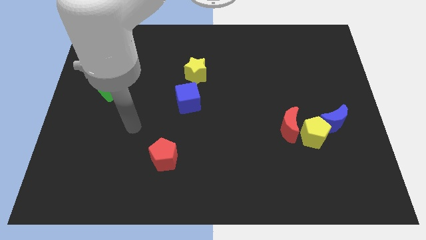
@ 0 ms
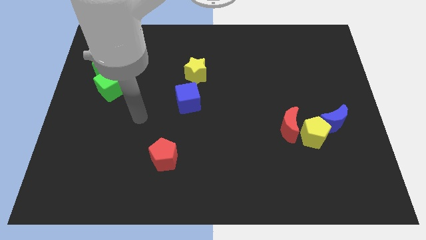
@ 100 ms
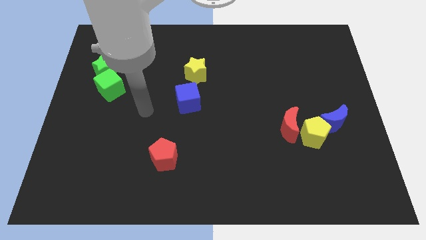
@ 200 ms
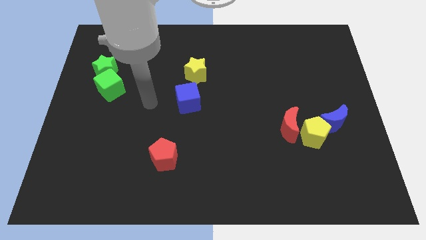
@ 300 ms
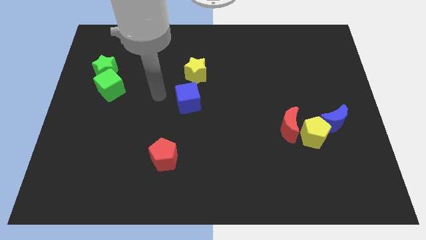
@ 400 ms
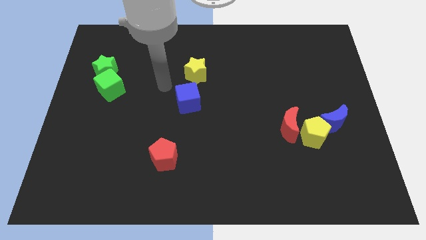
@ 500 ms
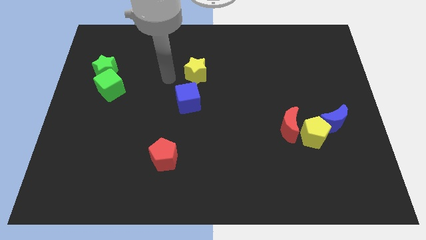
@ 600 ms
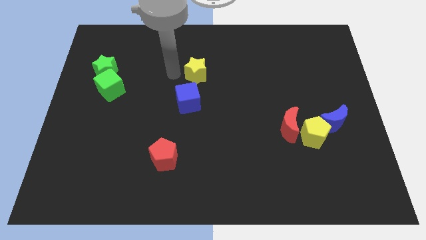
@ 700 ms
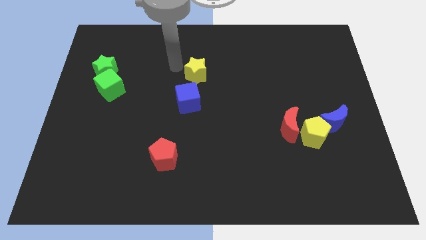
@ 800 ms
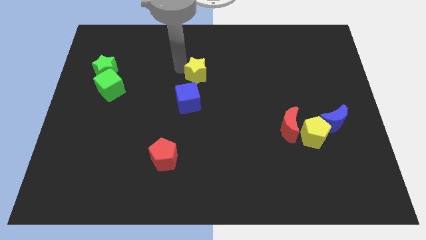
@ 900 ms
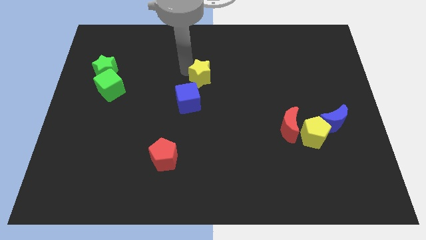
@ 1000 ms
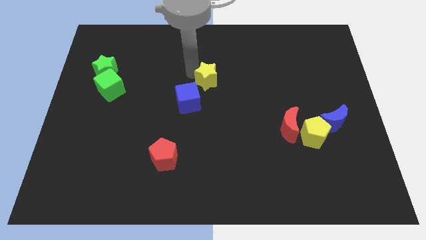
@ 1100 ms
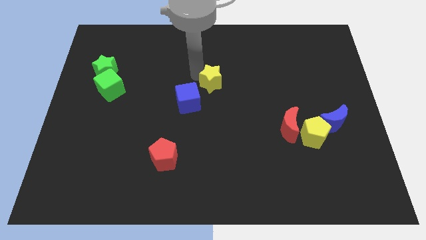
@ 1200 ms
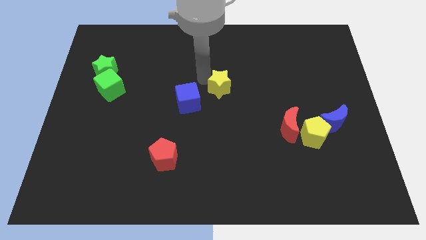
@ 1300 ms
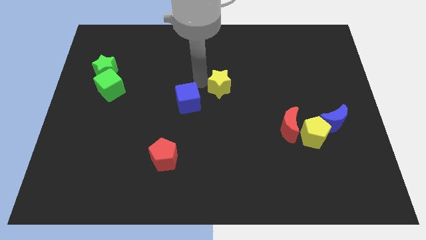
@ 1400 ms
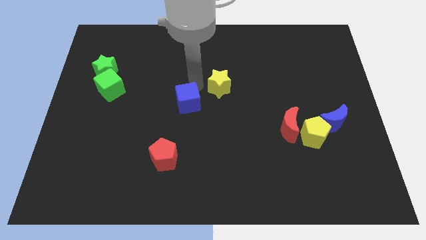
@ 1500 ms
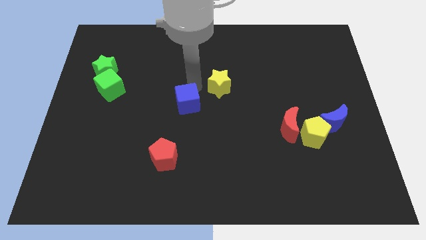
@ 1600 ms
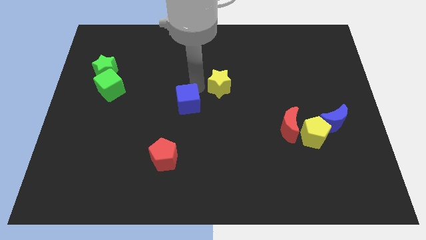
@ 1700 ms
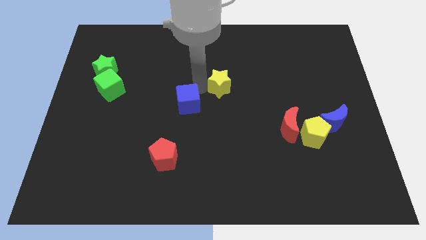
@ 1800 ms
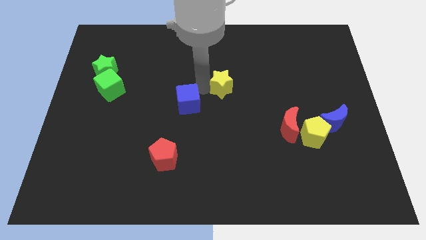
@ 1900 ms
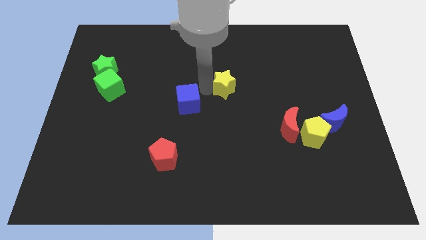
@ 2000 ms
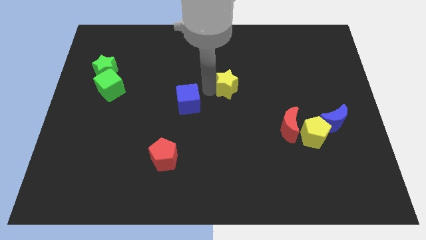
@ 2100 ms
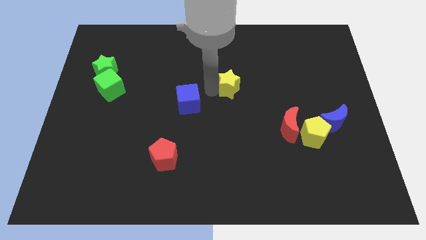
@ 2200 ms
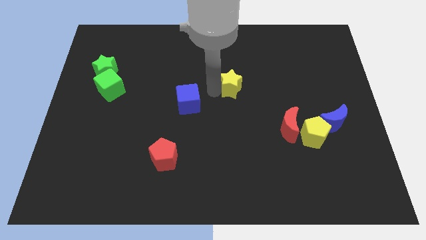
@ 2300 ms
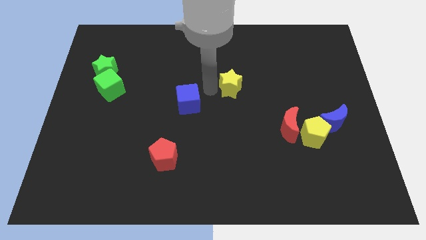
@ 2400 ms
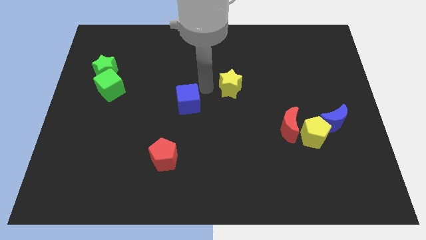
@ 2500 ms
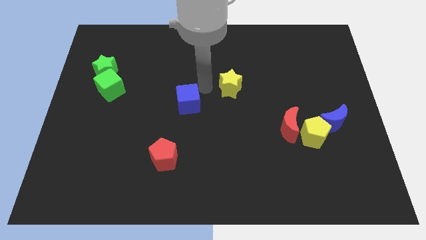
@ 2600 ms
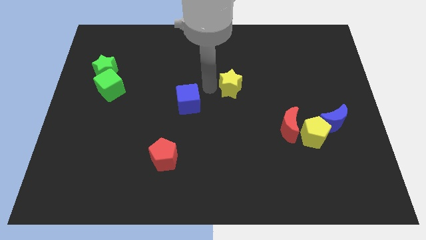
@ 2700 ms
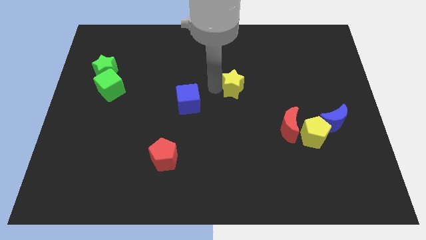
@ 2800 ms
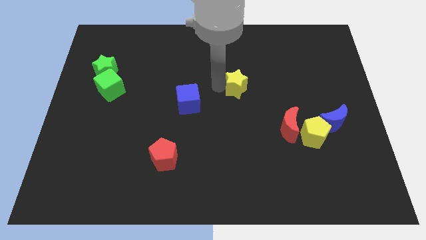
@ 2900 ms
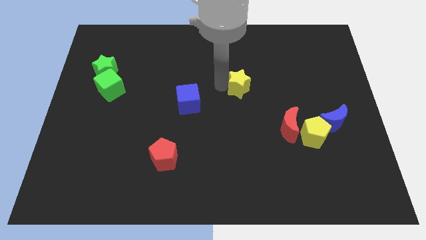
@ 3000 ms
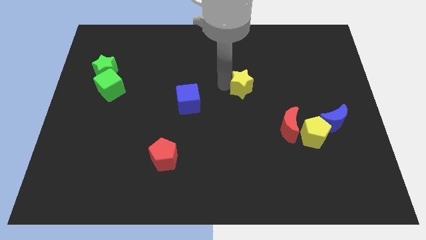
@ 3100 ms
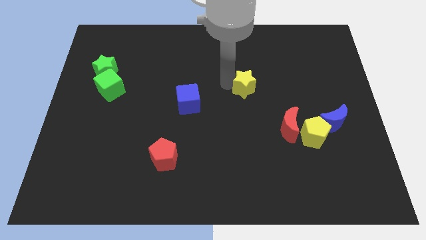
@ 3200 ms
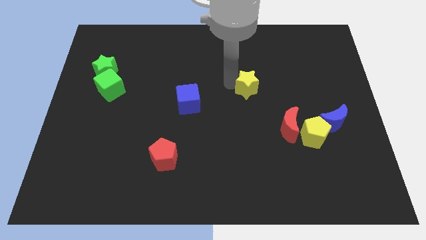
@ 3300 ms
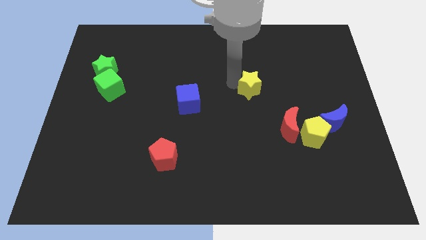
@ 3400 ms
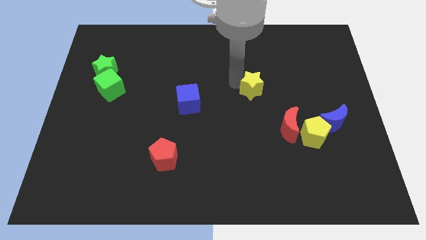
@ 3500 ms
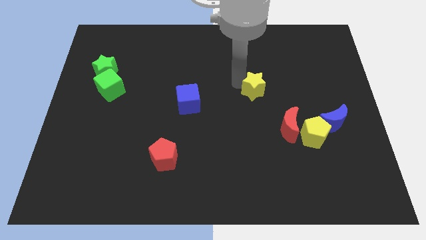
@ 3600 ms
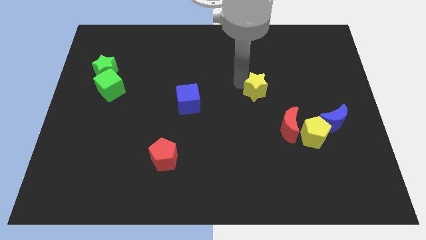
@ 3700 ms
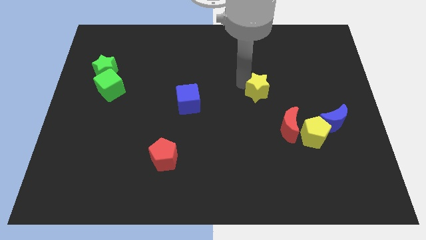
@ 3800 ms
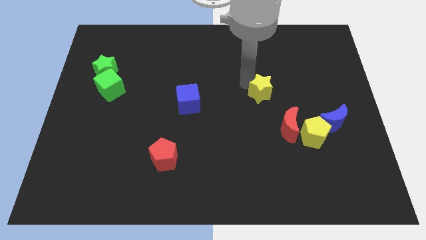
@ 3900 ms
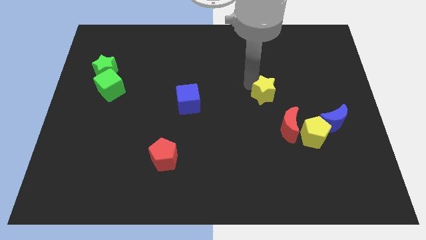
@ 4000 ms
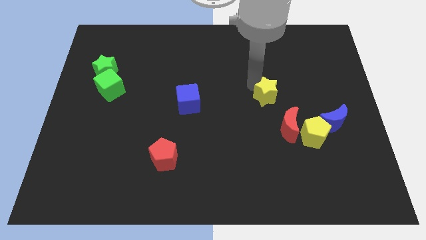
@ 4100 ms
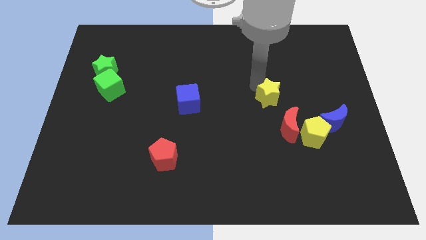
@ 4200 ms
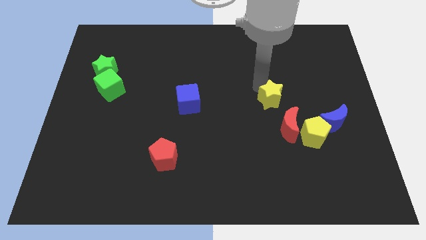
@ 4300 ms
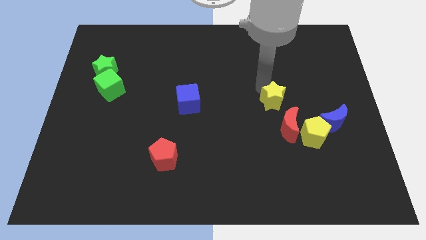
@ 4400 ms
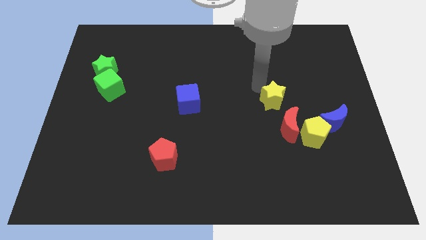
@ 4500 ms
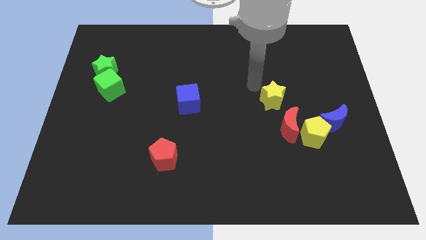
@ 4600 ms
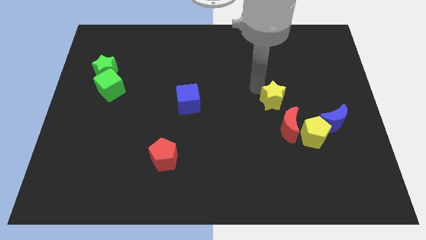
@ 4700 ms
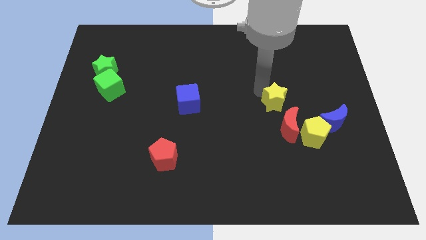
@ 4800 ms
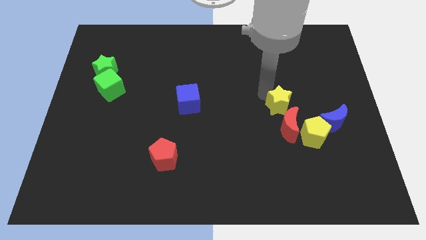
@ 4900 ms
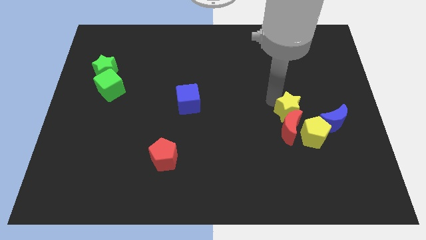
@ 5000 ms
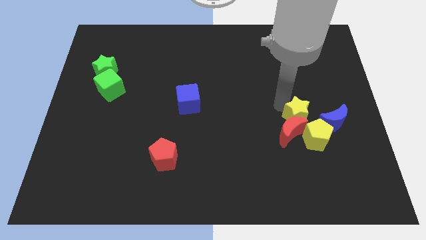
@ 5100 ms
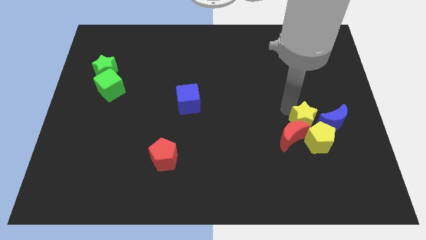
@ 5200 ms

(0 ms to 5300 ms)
push the yellow star close to the yellow pentagon

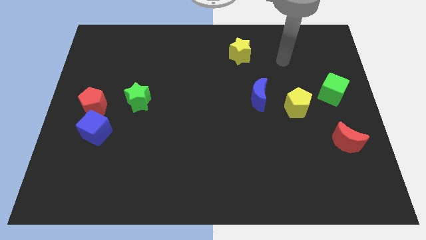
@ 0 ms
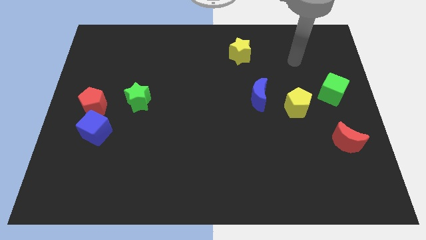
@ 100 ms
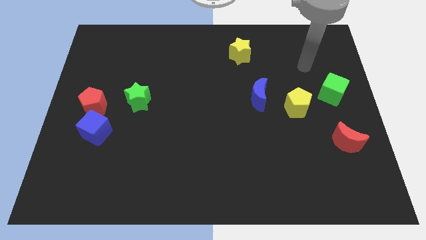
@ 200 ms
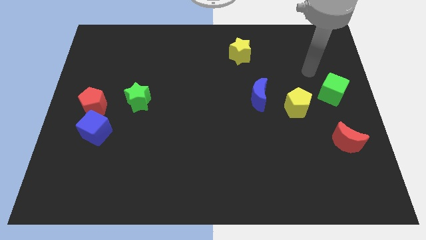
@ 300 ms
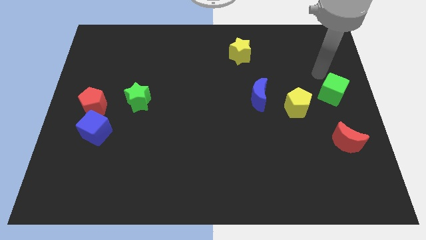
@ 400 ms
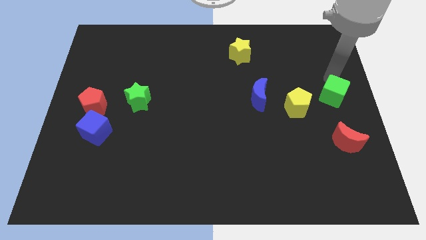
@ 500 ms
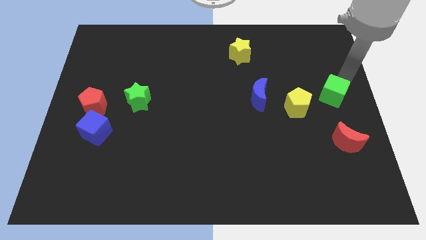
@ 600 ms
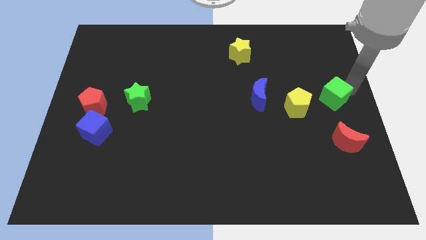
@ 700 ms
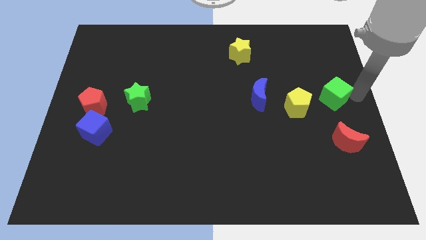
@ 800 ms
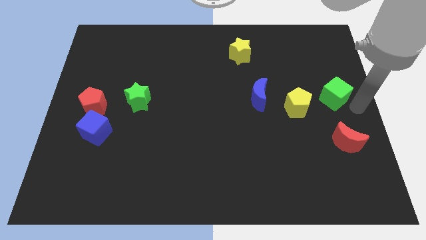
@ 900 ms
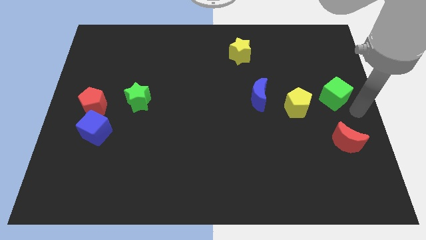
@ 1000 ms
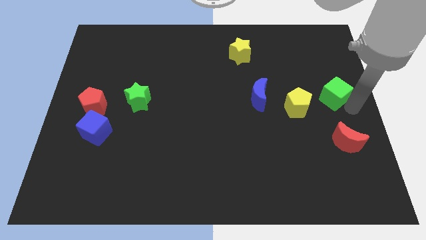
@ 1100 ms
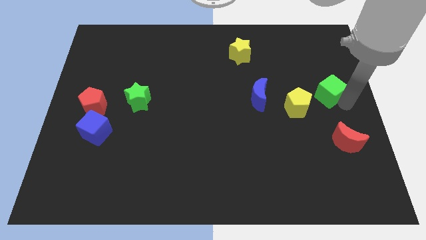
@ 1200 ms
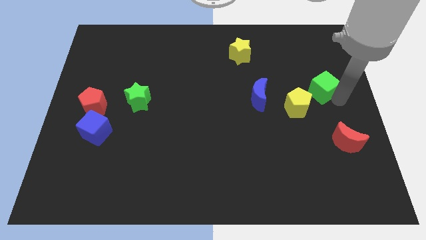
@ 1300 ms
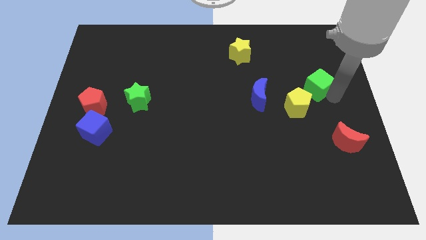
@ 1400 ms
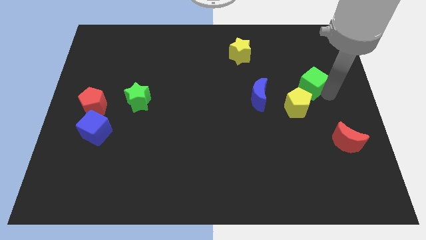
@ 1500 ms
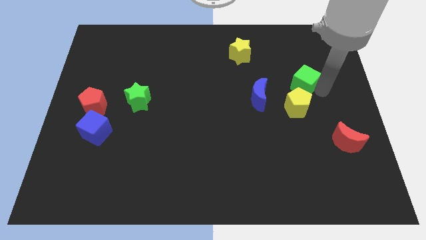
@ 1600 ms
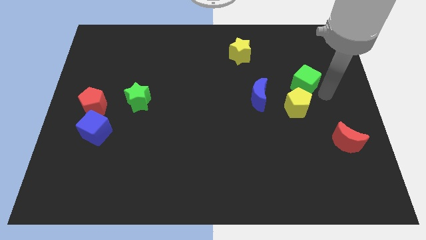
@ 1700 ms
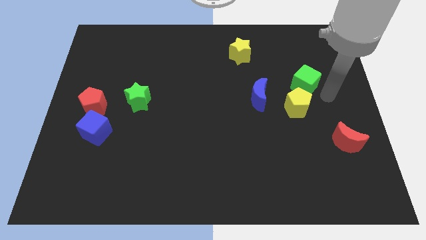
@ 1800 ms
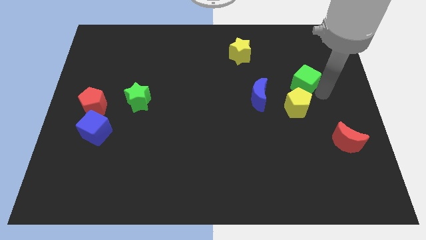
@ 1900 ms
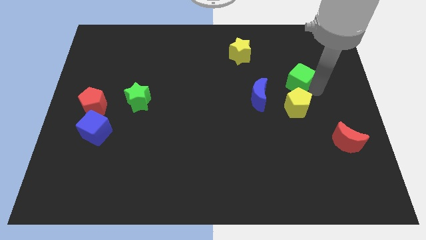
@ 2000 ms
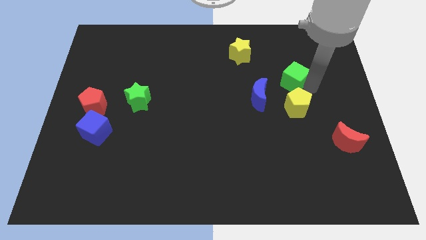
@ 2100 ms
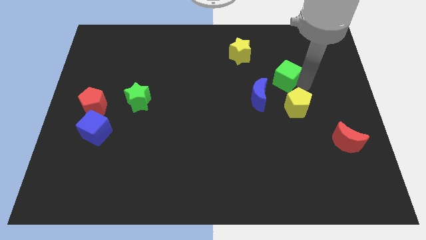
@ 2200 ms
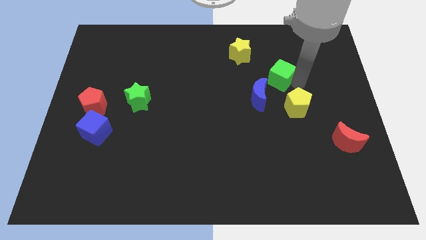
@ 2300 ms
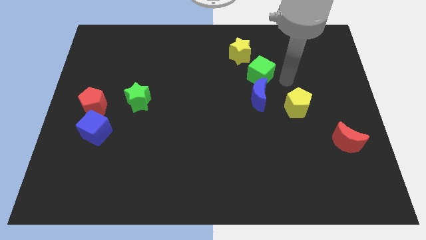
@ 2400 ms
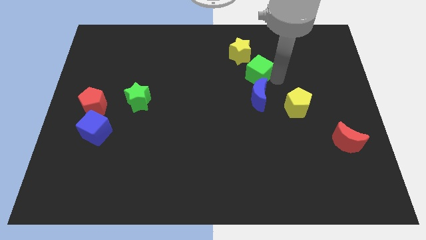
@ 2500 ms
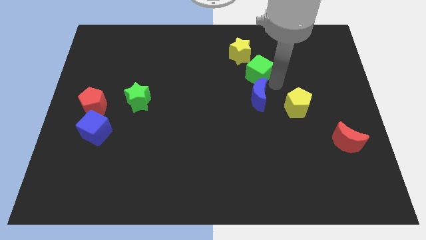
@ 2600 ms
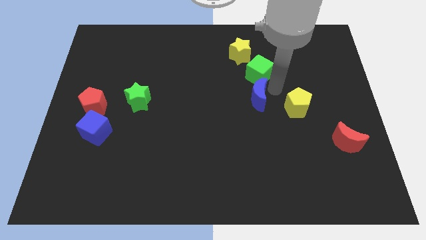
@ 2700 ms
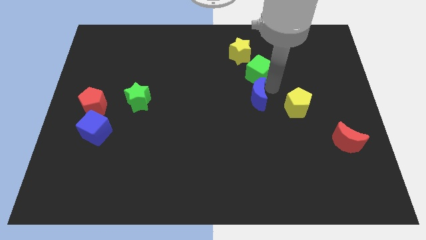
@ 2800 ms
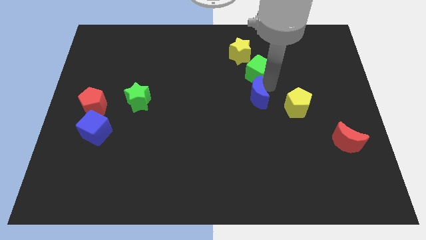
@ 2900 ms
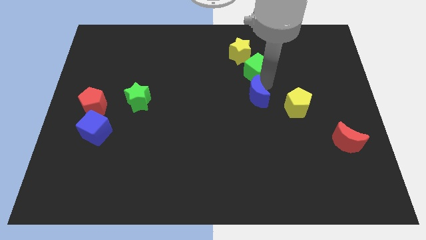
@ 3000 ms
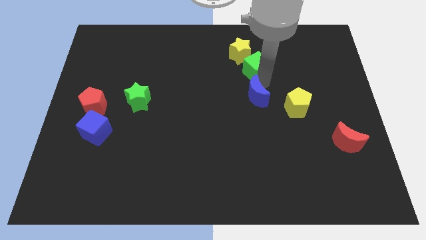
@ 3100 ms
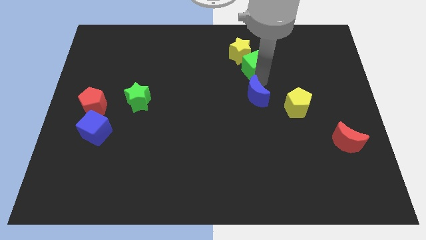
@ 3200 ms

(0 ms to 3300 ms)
slide the green cube towards the yellow star
